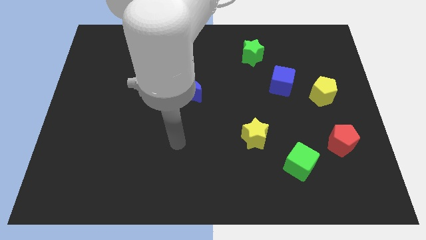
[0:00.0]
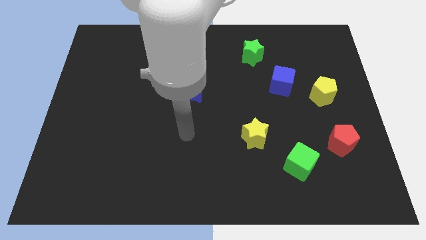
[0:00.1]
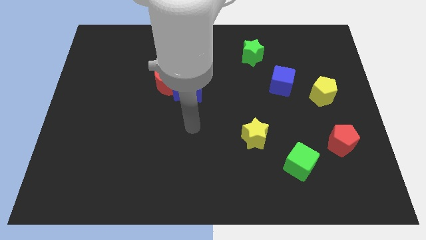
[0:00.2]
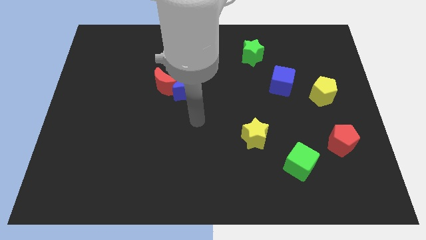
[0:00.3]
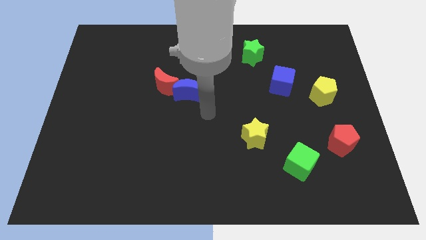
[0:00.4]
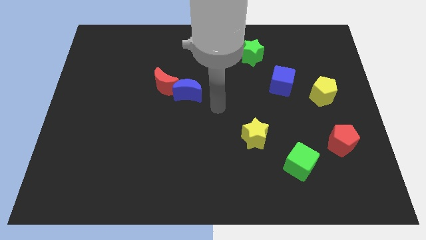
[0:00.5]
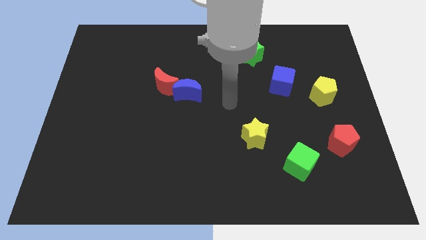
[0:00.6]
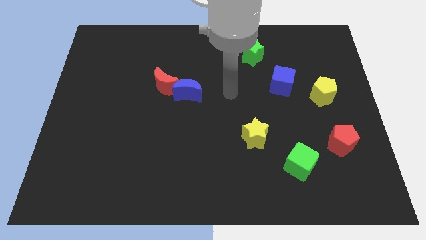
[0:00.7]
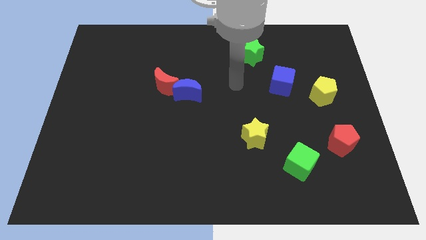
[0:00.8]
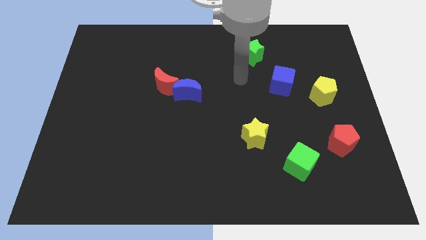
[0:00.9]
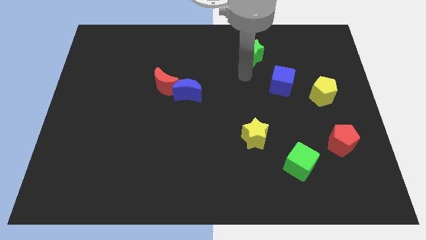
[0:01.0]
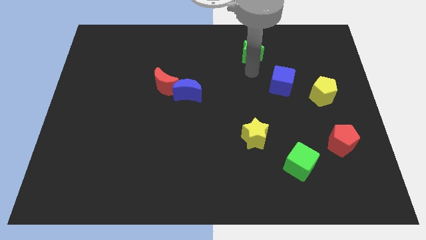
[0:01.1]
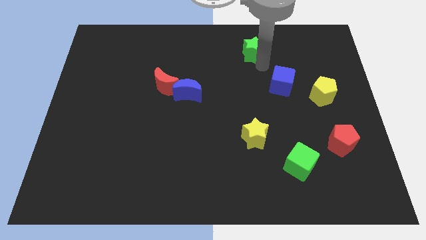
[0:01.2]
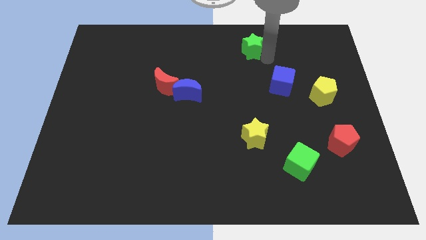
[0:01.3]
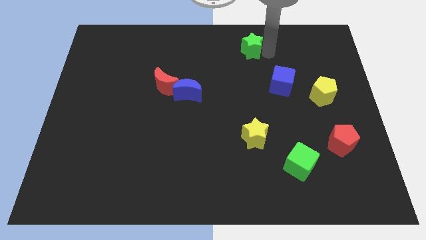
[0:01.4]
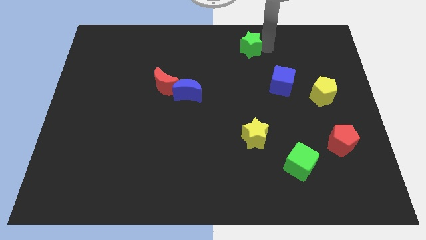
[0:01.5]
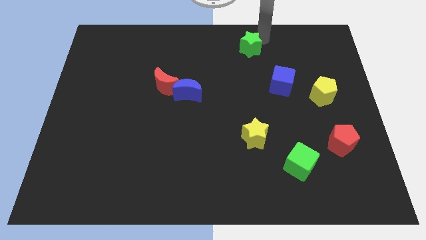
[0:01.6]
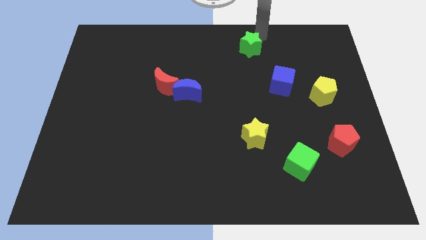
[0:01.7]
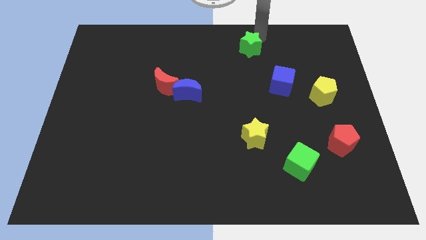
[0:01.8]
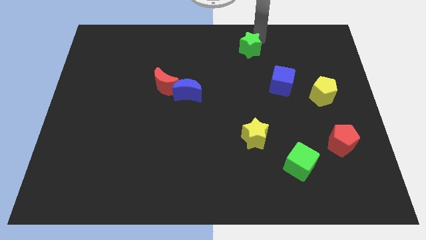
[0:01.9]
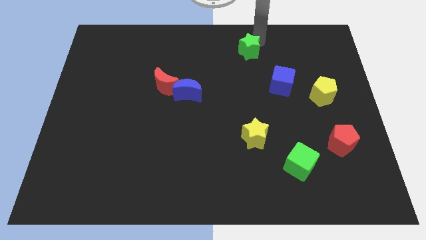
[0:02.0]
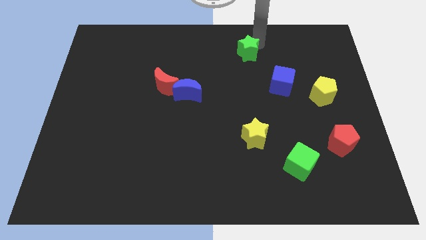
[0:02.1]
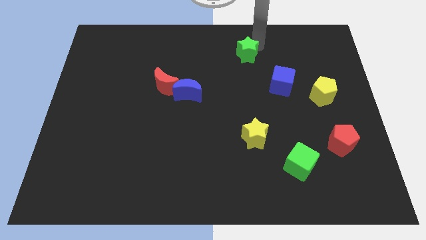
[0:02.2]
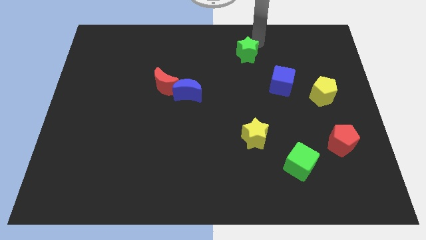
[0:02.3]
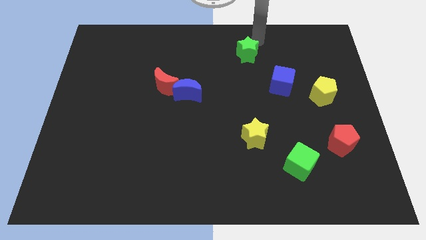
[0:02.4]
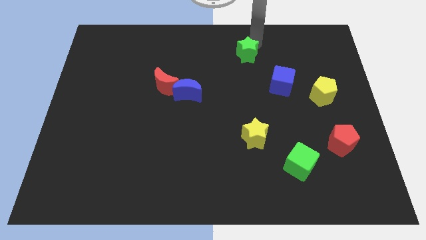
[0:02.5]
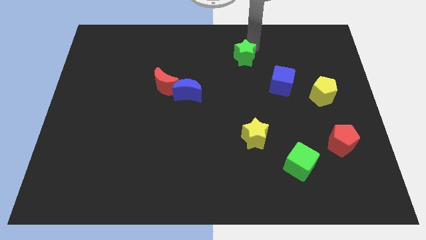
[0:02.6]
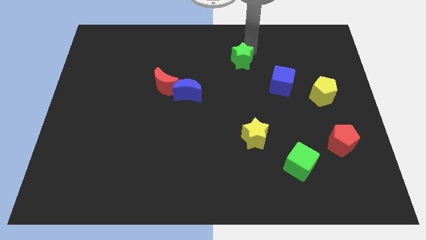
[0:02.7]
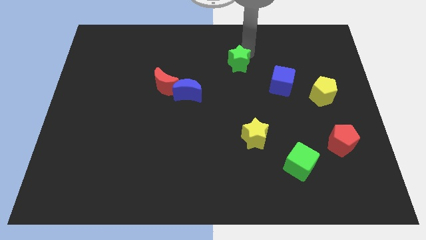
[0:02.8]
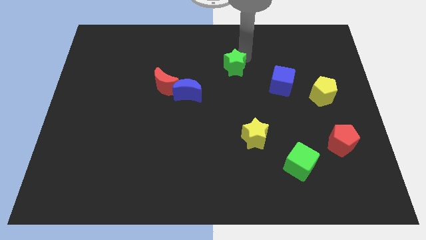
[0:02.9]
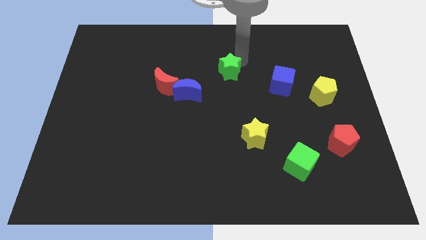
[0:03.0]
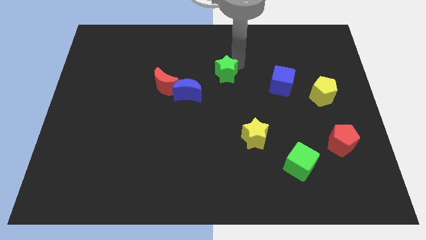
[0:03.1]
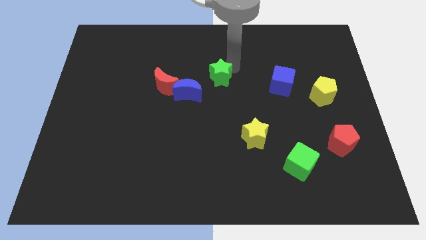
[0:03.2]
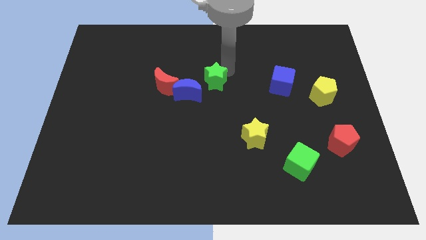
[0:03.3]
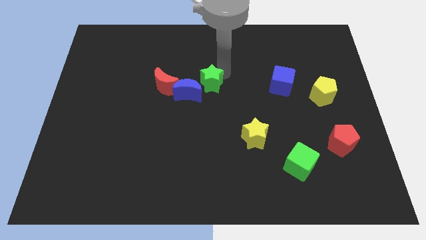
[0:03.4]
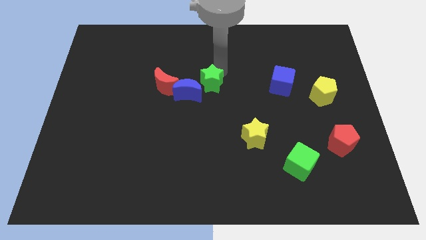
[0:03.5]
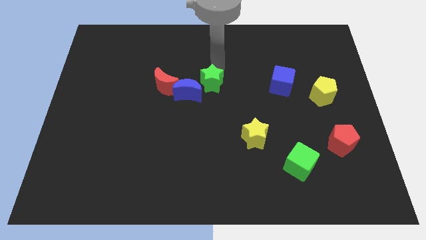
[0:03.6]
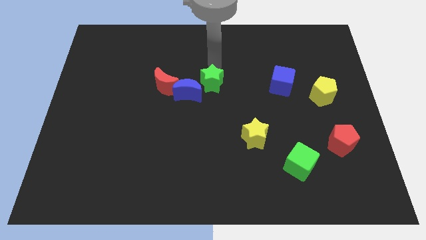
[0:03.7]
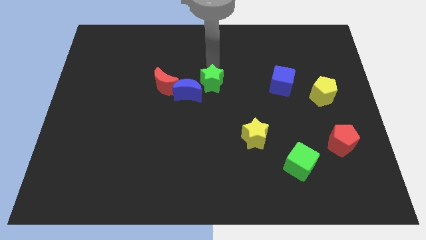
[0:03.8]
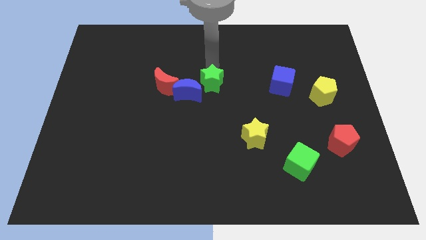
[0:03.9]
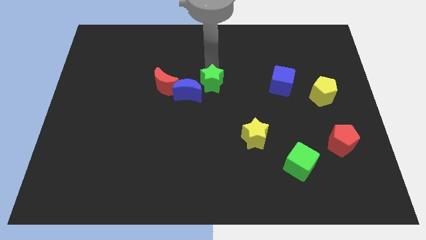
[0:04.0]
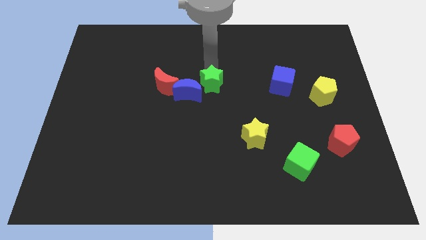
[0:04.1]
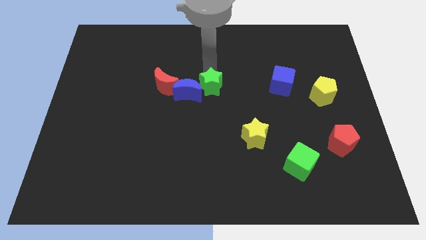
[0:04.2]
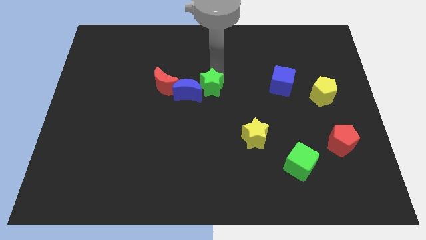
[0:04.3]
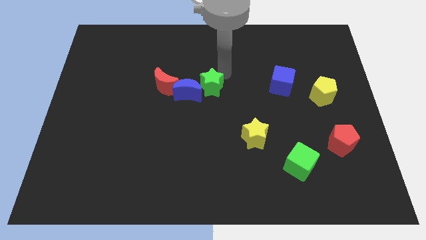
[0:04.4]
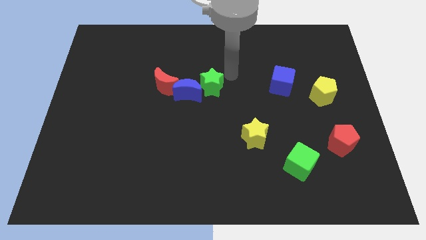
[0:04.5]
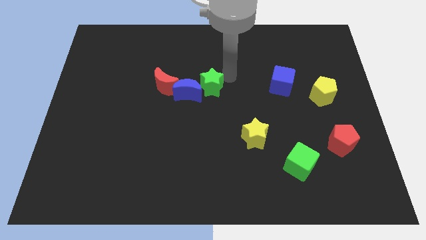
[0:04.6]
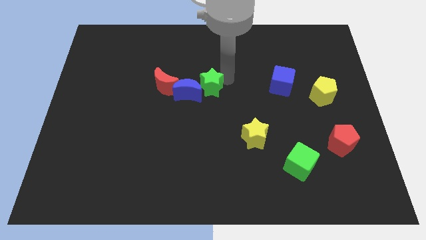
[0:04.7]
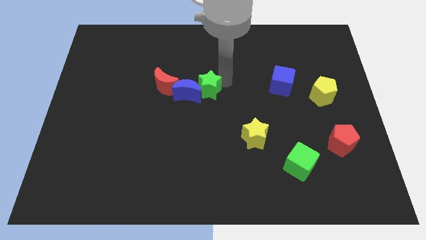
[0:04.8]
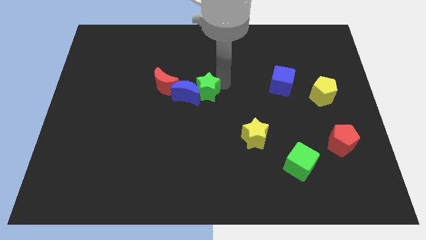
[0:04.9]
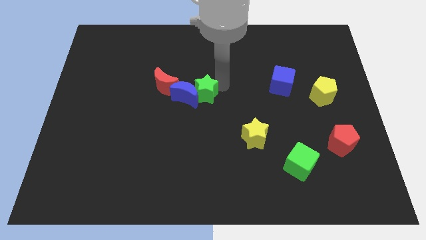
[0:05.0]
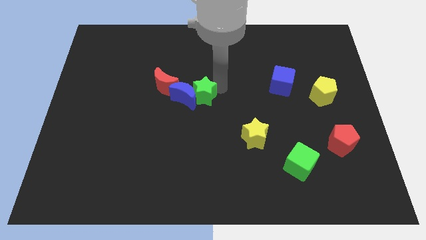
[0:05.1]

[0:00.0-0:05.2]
push the green star to the bottom right of the red moon

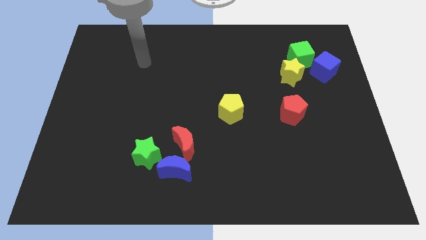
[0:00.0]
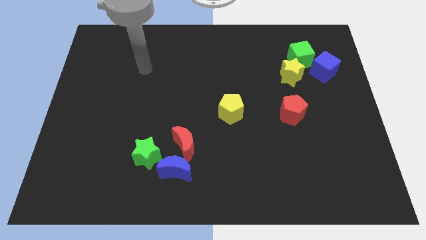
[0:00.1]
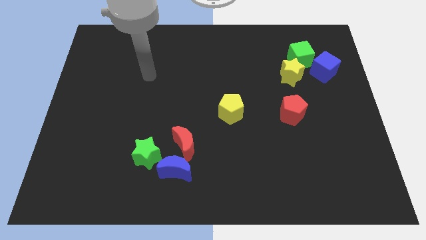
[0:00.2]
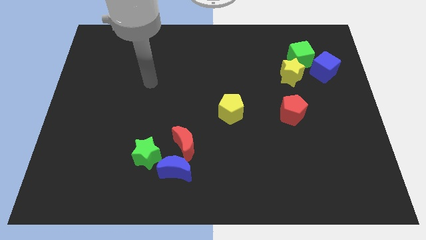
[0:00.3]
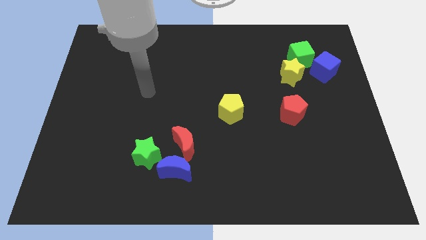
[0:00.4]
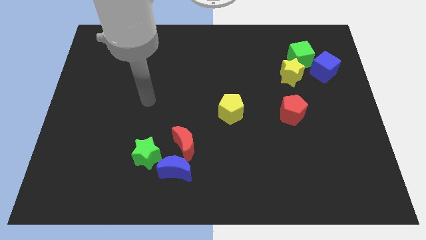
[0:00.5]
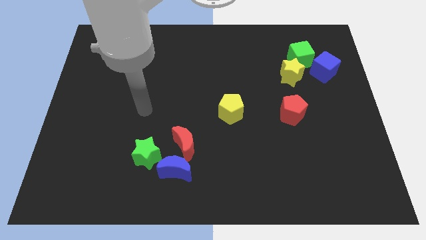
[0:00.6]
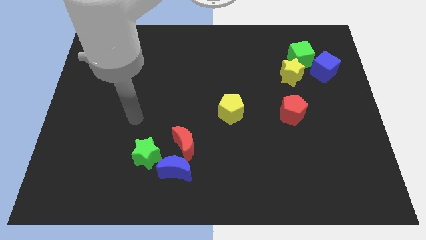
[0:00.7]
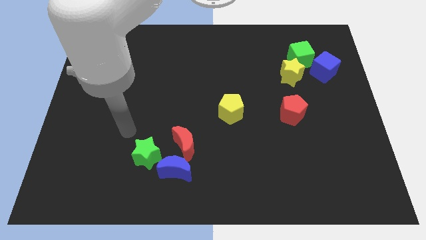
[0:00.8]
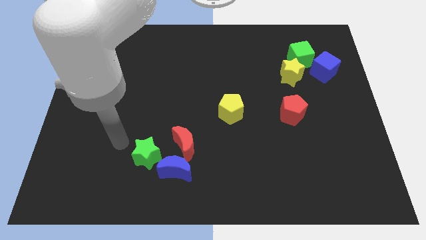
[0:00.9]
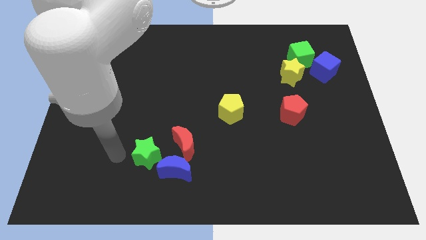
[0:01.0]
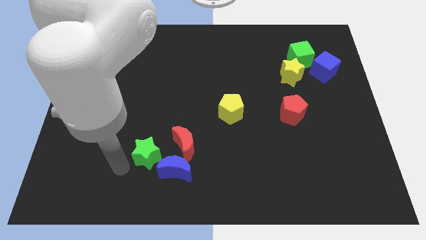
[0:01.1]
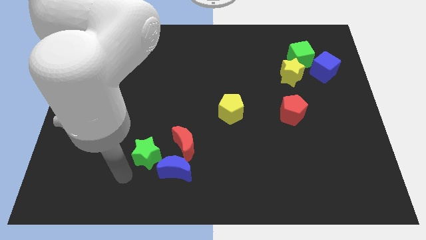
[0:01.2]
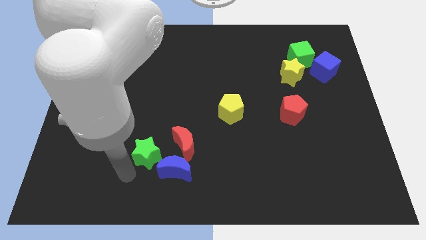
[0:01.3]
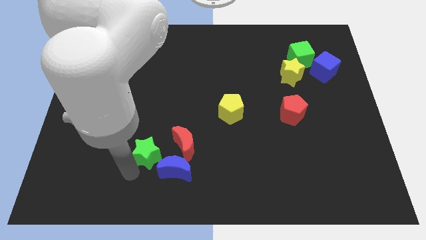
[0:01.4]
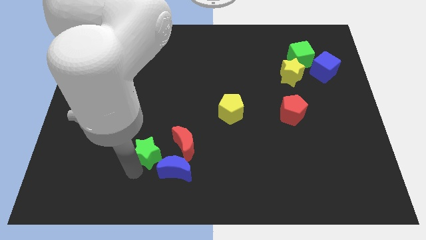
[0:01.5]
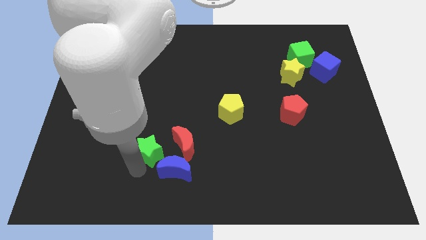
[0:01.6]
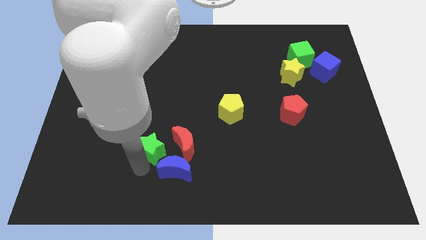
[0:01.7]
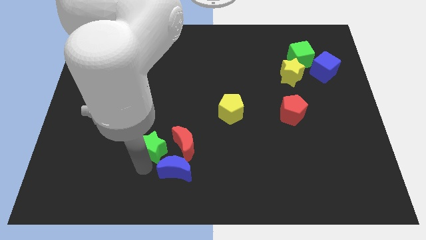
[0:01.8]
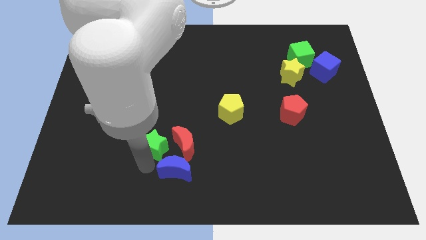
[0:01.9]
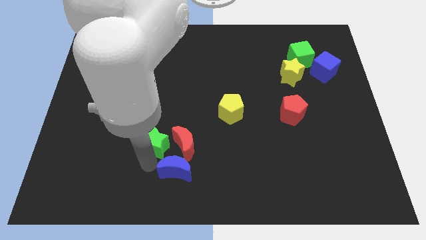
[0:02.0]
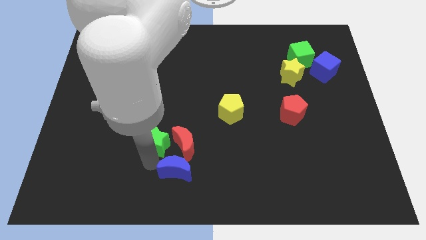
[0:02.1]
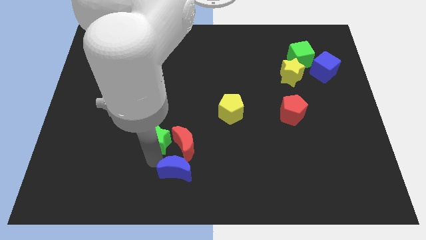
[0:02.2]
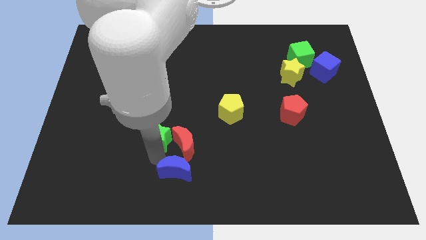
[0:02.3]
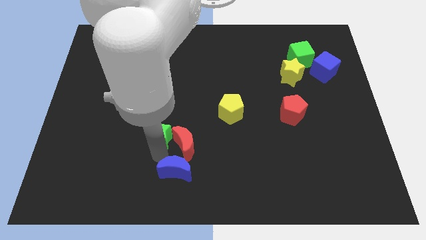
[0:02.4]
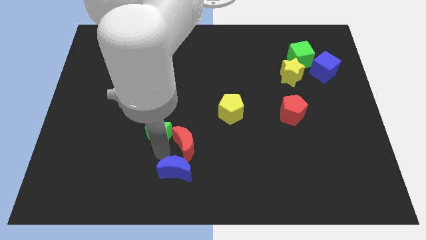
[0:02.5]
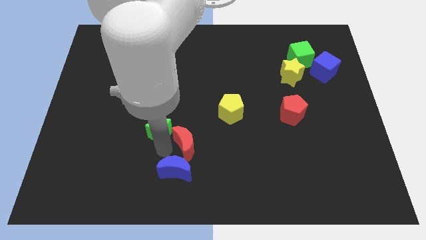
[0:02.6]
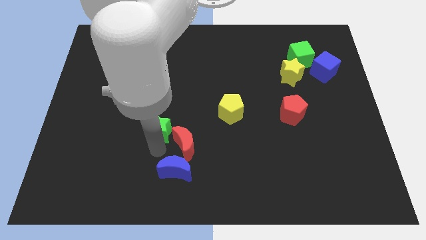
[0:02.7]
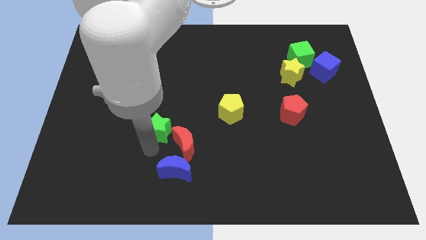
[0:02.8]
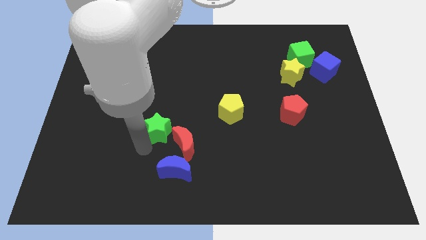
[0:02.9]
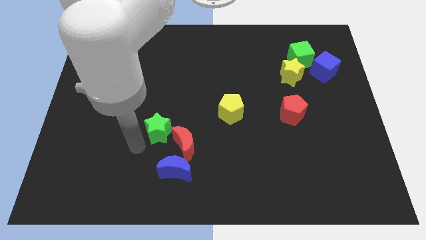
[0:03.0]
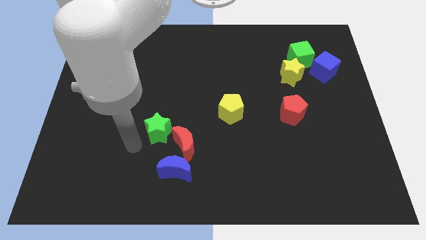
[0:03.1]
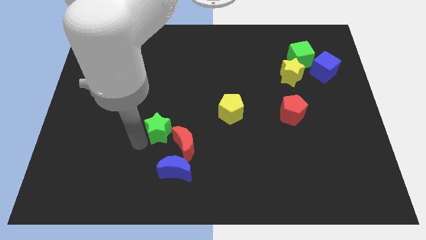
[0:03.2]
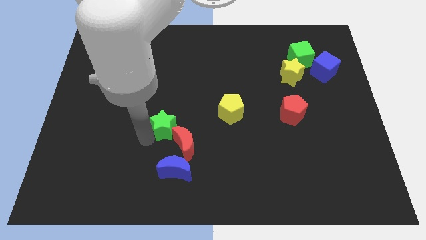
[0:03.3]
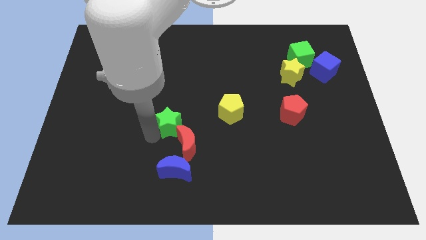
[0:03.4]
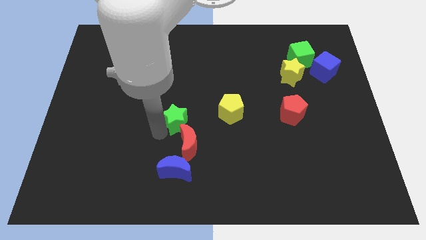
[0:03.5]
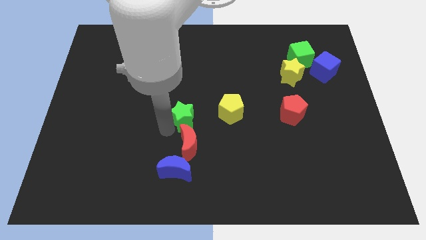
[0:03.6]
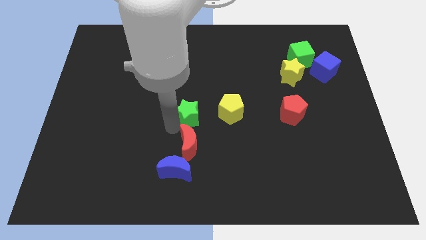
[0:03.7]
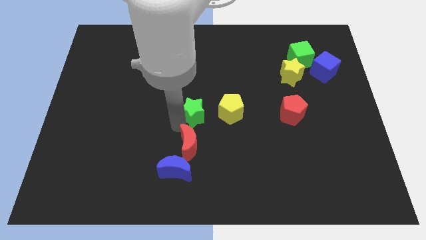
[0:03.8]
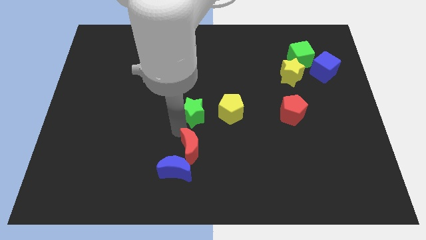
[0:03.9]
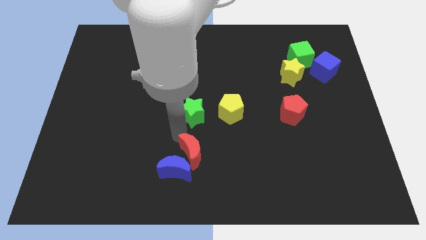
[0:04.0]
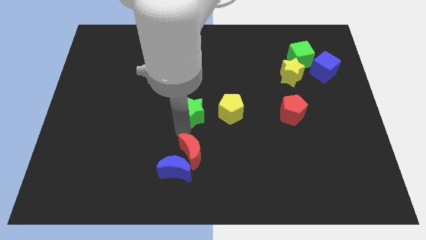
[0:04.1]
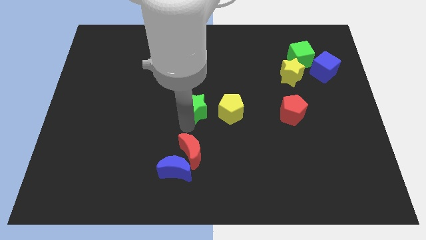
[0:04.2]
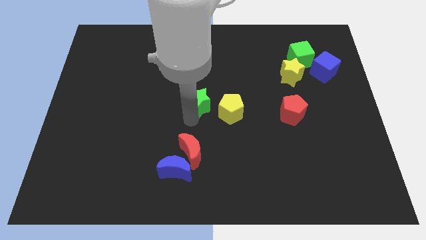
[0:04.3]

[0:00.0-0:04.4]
push the green star to the top left side of the yellow pentagon
